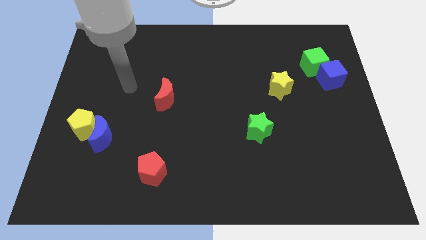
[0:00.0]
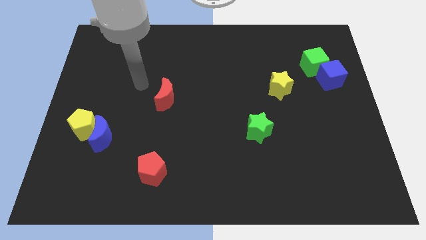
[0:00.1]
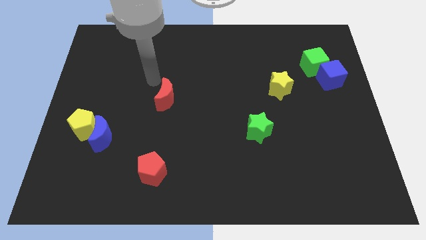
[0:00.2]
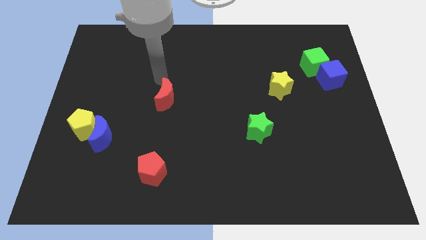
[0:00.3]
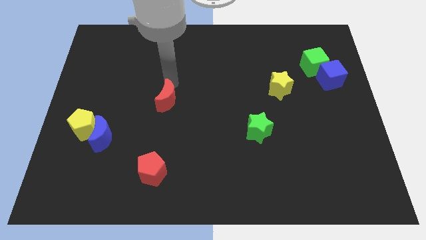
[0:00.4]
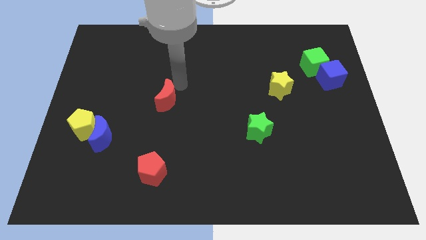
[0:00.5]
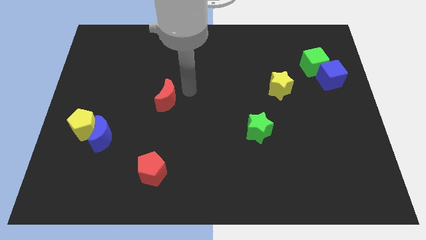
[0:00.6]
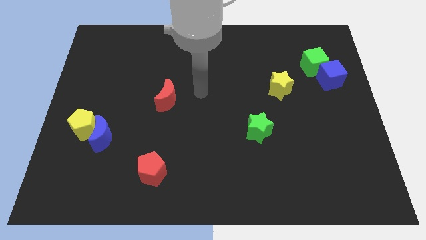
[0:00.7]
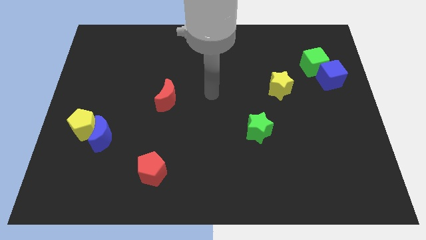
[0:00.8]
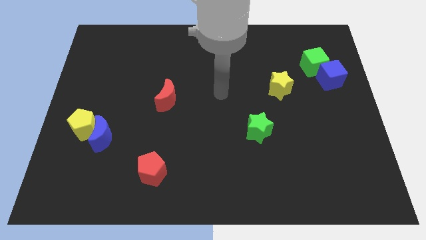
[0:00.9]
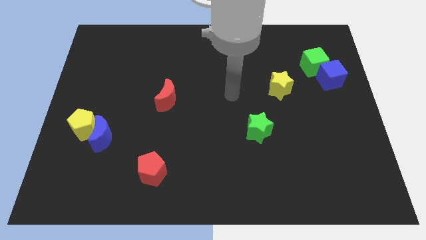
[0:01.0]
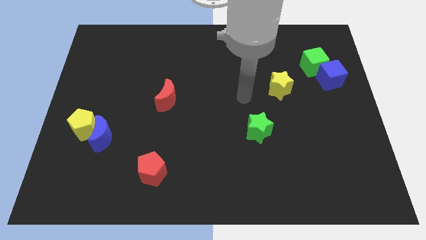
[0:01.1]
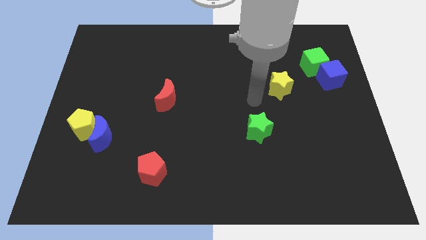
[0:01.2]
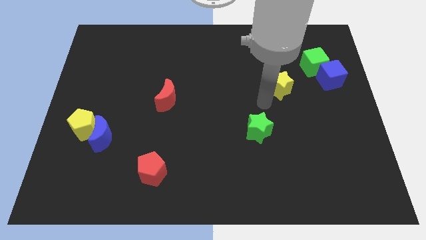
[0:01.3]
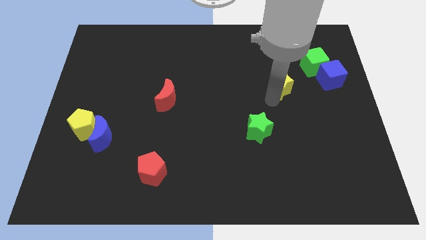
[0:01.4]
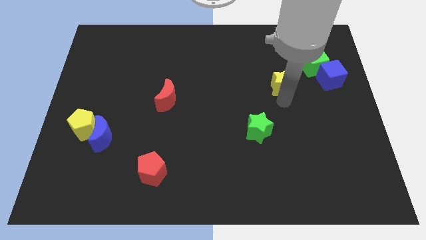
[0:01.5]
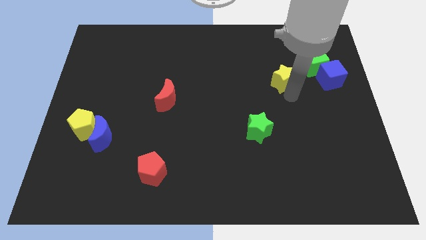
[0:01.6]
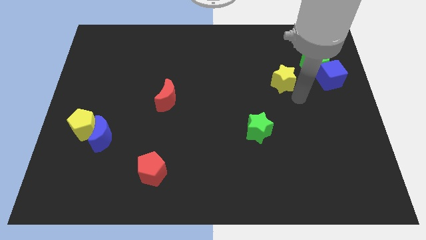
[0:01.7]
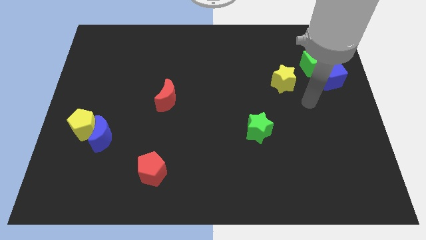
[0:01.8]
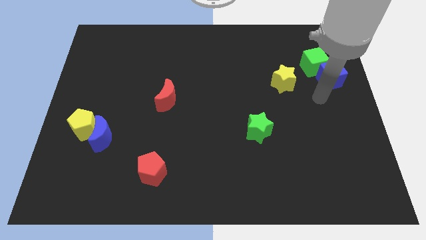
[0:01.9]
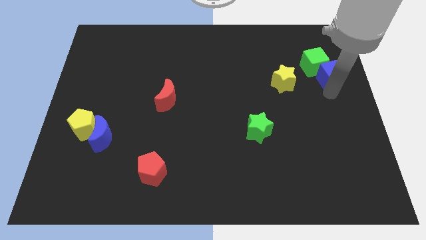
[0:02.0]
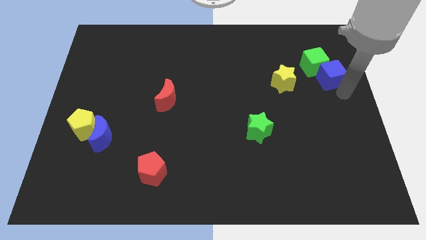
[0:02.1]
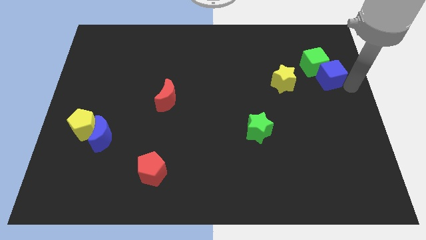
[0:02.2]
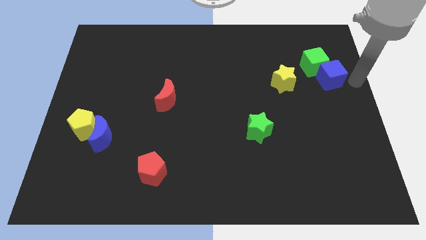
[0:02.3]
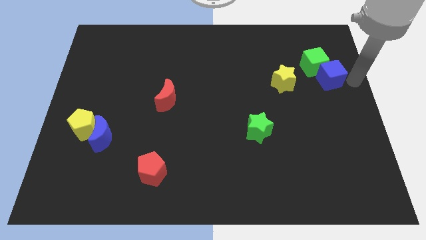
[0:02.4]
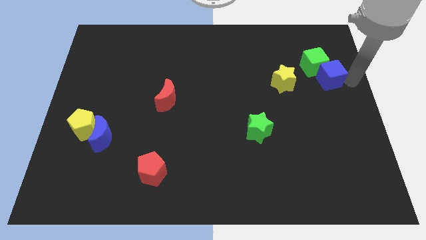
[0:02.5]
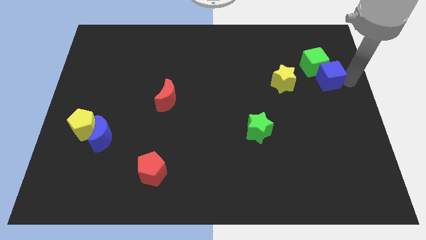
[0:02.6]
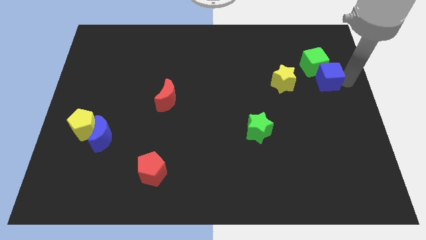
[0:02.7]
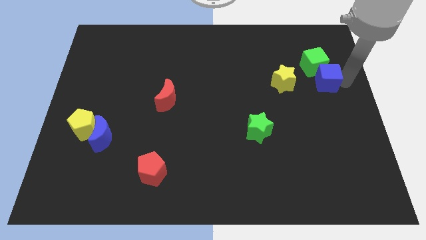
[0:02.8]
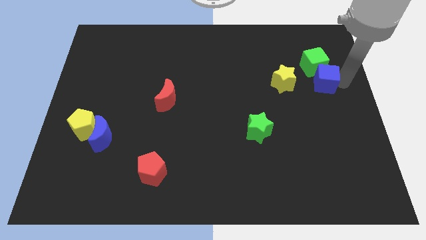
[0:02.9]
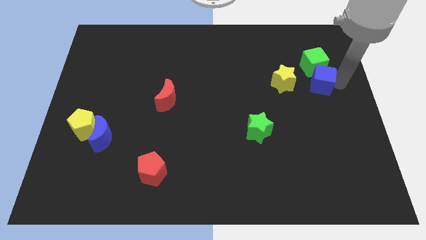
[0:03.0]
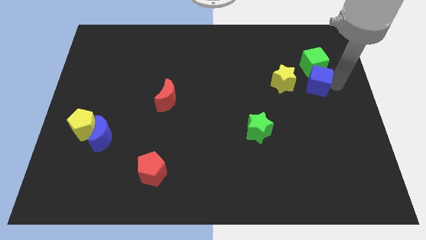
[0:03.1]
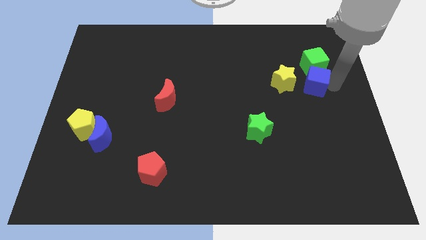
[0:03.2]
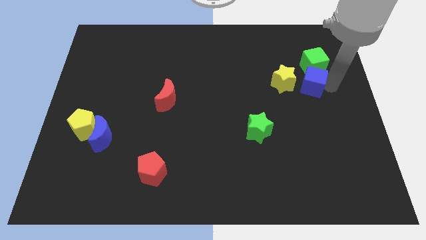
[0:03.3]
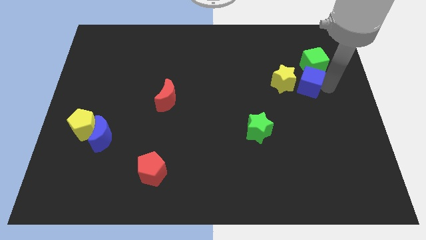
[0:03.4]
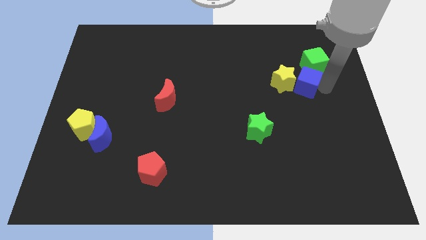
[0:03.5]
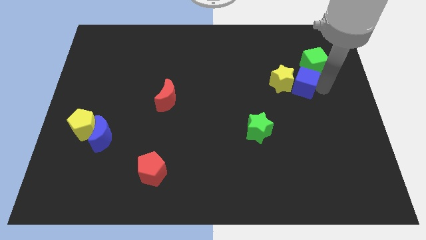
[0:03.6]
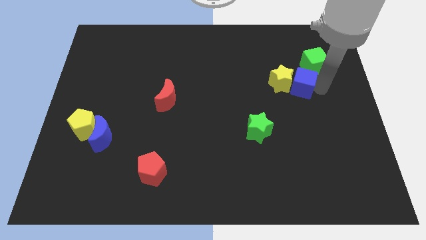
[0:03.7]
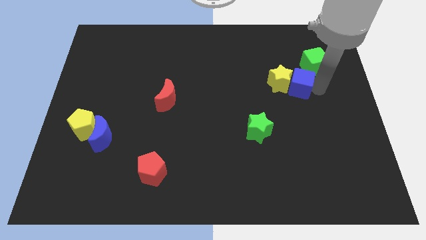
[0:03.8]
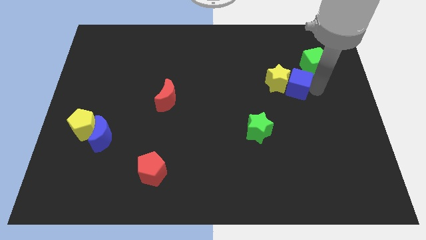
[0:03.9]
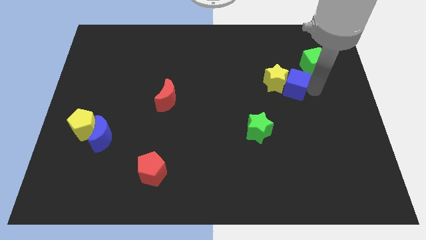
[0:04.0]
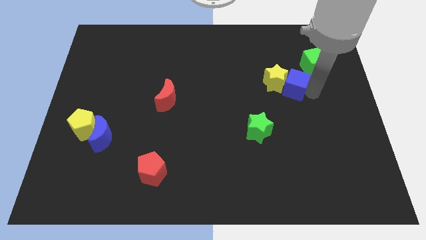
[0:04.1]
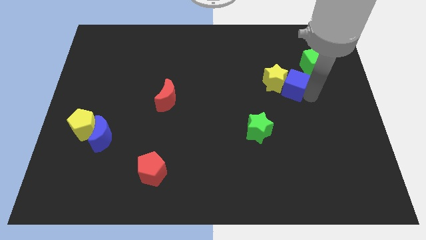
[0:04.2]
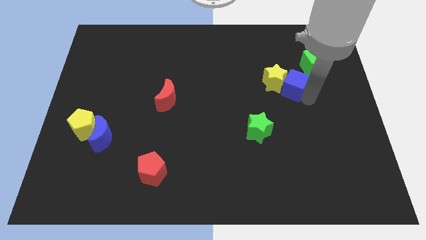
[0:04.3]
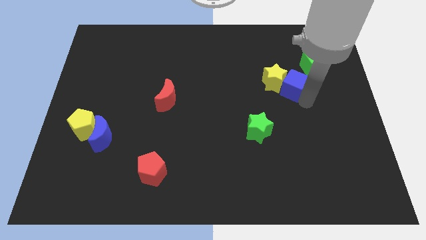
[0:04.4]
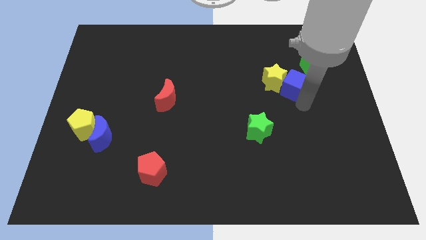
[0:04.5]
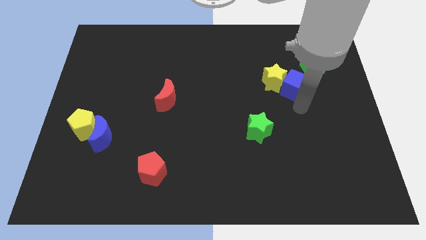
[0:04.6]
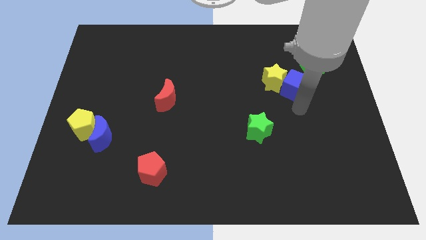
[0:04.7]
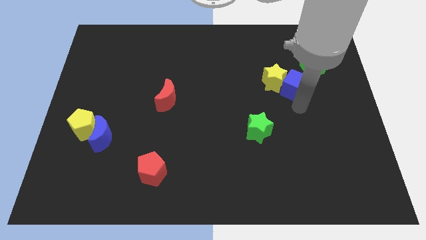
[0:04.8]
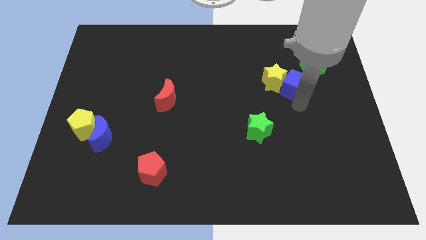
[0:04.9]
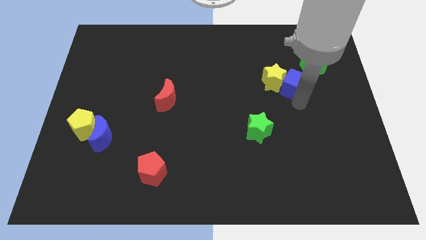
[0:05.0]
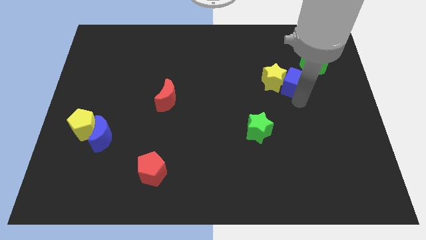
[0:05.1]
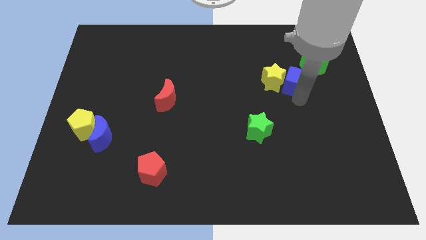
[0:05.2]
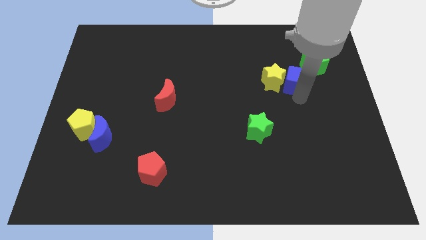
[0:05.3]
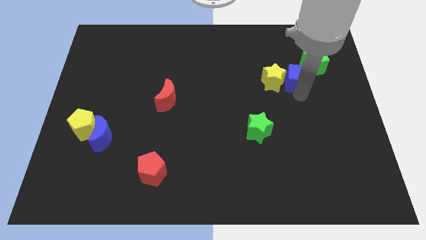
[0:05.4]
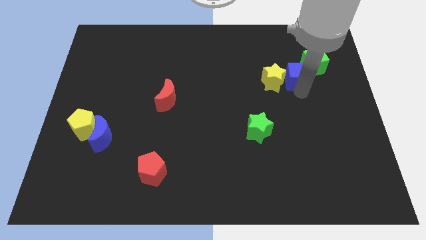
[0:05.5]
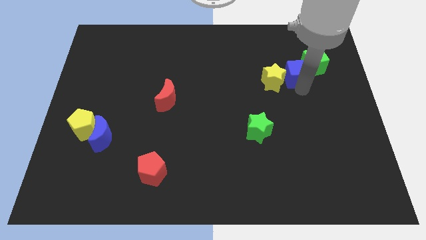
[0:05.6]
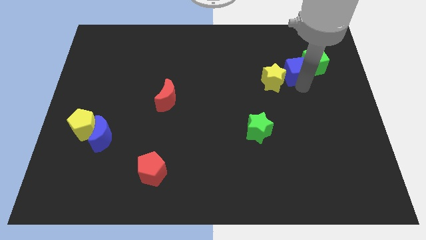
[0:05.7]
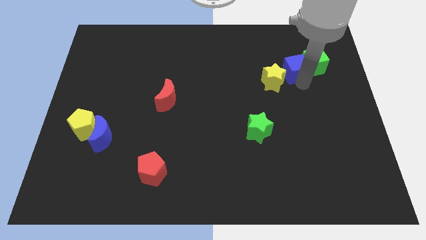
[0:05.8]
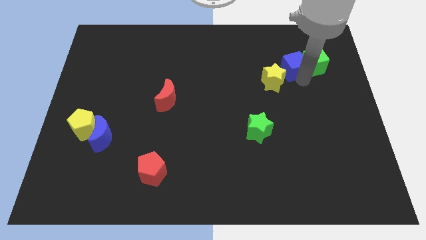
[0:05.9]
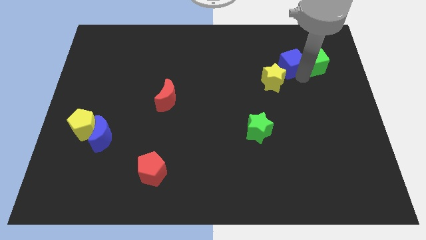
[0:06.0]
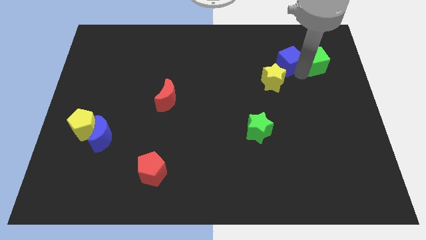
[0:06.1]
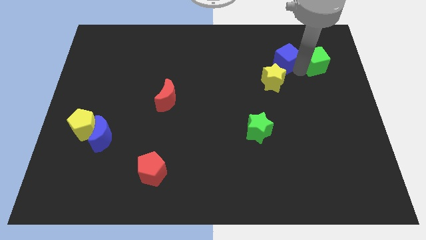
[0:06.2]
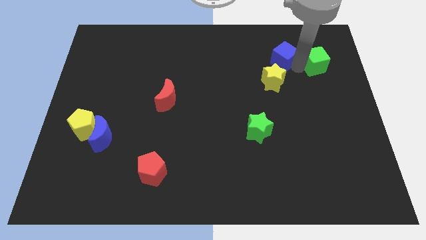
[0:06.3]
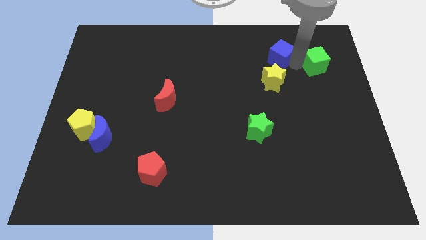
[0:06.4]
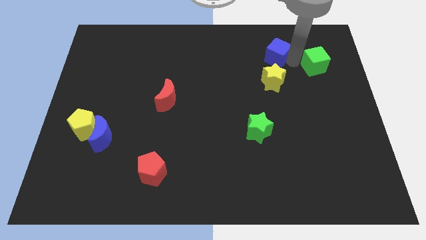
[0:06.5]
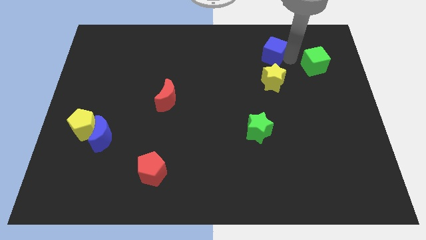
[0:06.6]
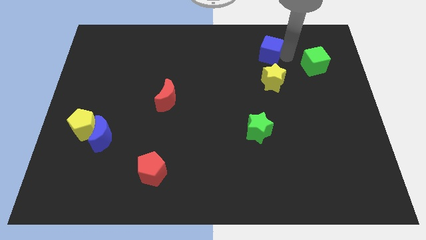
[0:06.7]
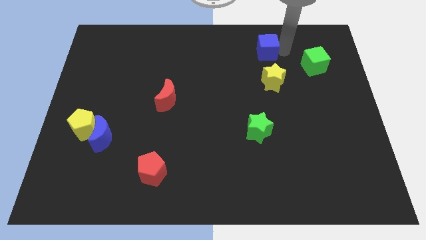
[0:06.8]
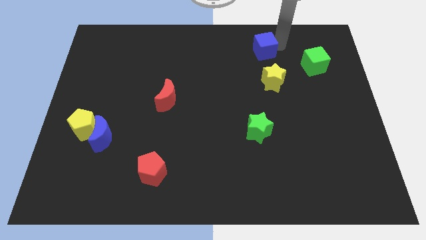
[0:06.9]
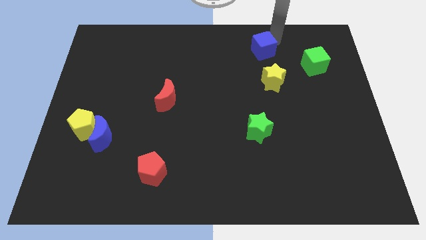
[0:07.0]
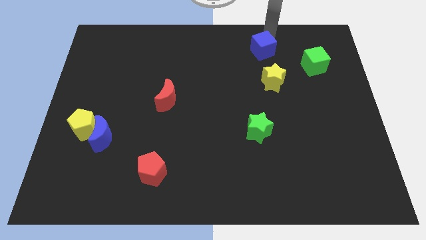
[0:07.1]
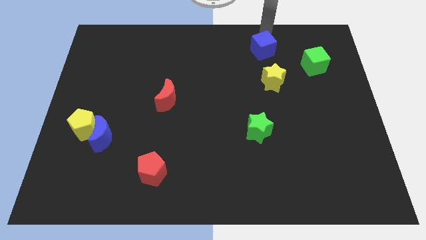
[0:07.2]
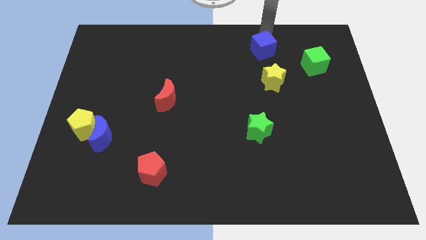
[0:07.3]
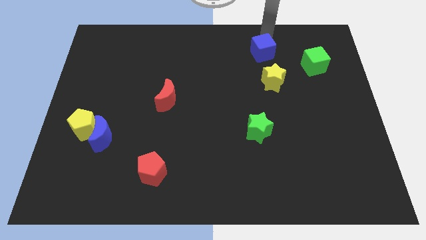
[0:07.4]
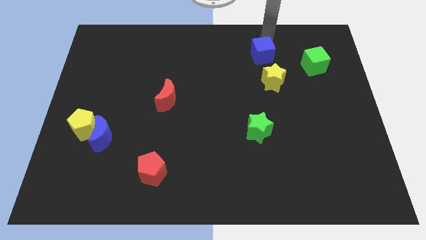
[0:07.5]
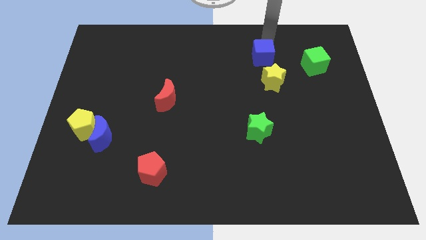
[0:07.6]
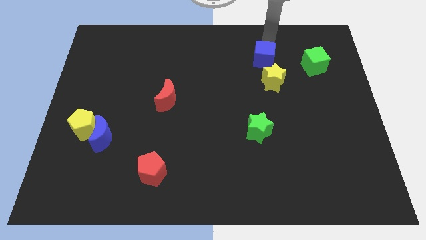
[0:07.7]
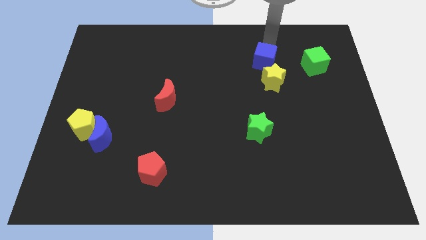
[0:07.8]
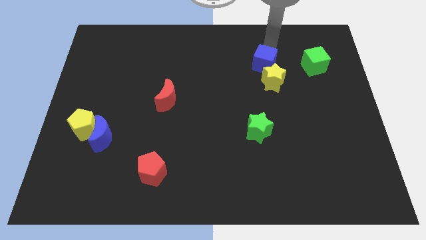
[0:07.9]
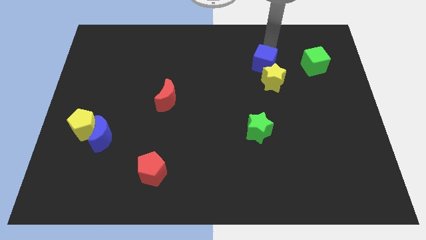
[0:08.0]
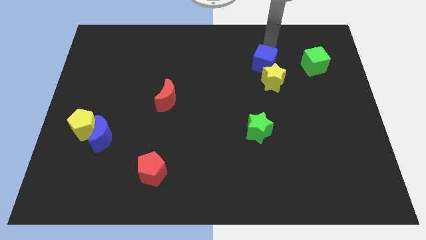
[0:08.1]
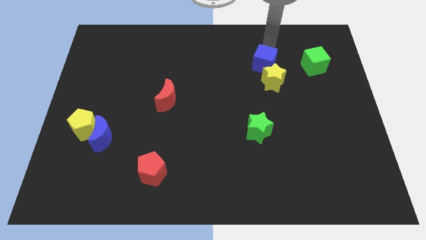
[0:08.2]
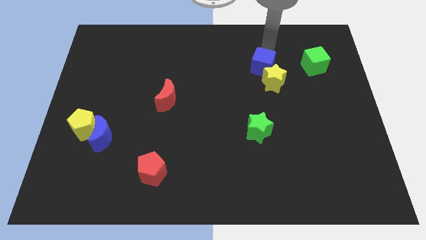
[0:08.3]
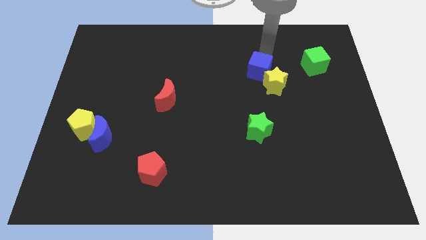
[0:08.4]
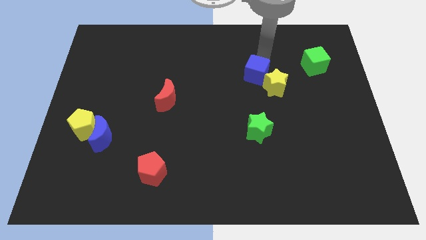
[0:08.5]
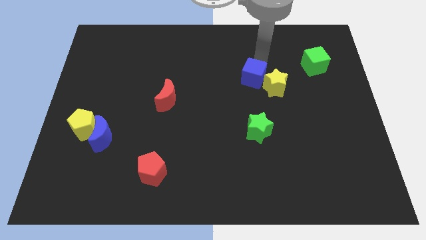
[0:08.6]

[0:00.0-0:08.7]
move the blue cube to the middle
